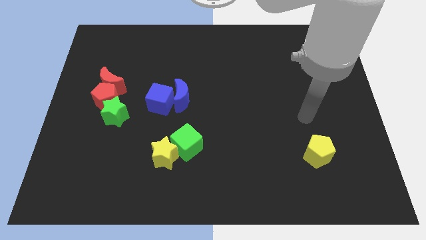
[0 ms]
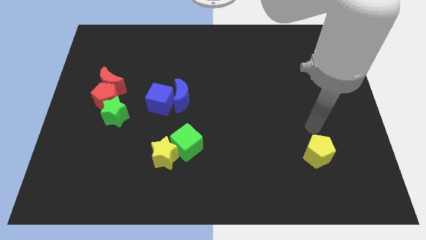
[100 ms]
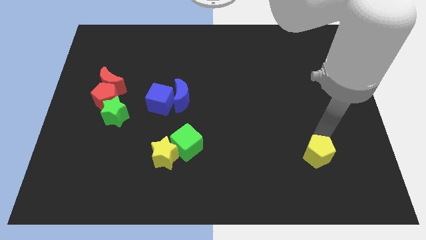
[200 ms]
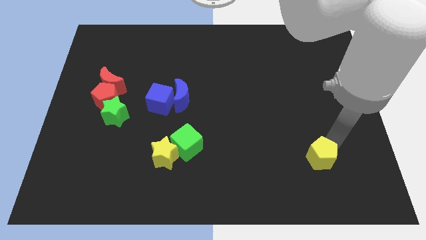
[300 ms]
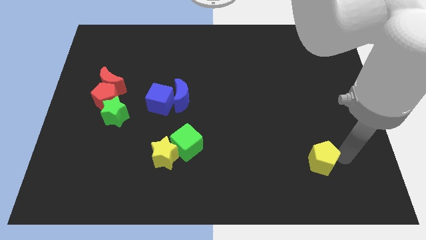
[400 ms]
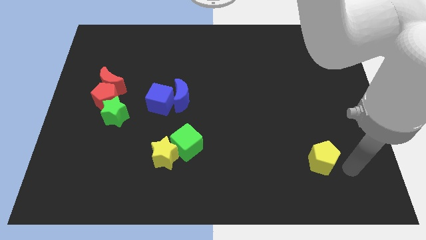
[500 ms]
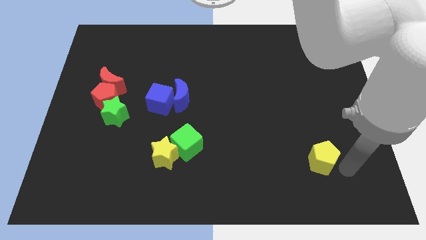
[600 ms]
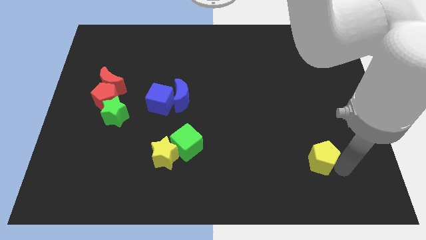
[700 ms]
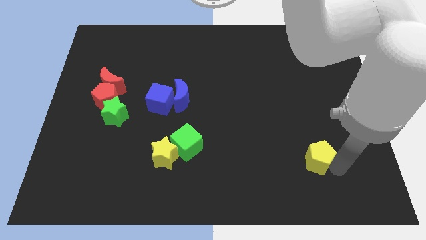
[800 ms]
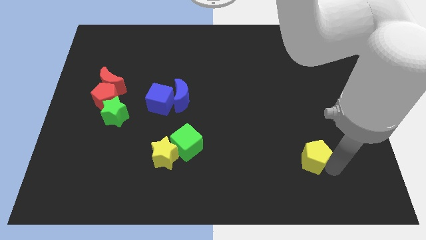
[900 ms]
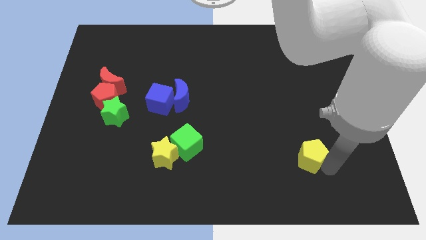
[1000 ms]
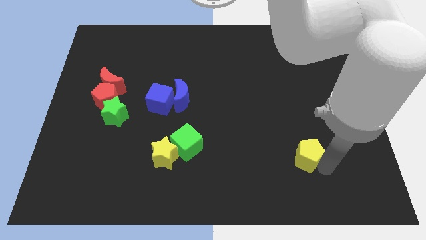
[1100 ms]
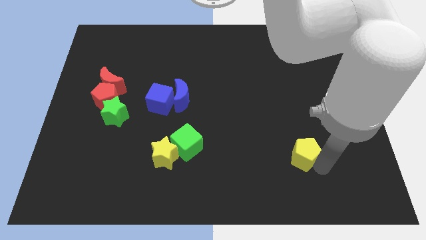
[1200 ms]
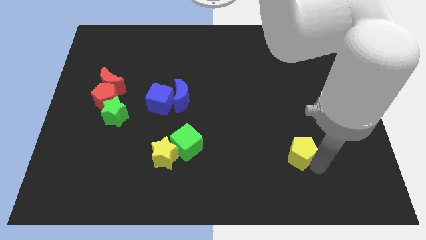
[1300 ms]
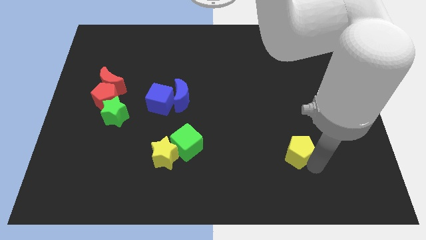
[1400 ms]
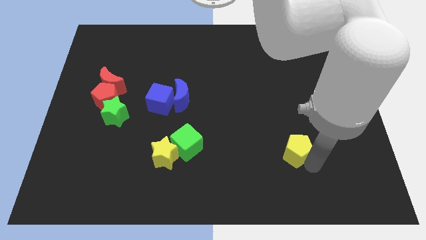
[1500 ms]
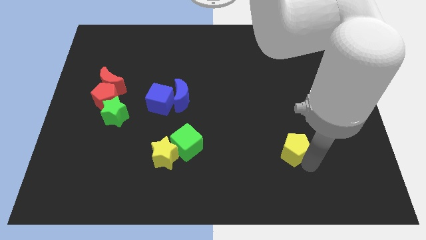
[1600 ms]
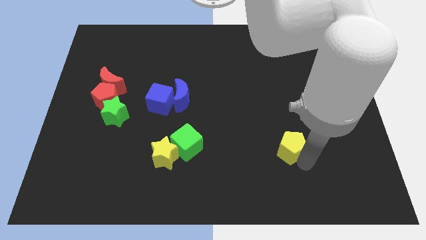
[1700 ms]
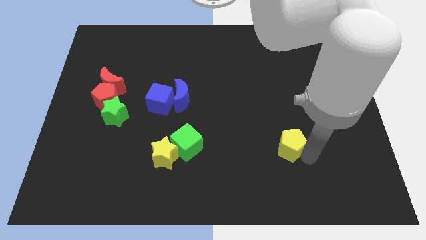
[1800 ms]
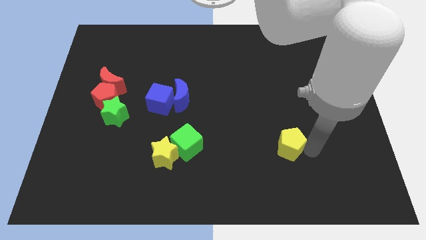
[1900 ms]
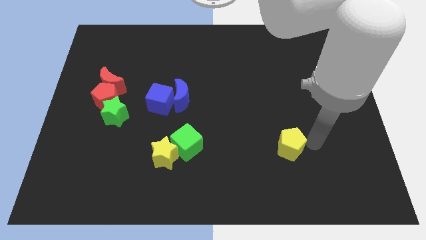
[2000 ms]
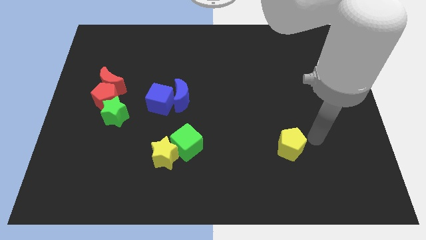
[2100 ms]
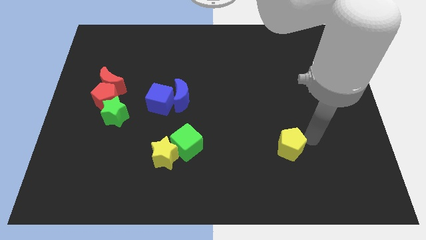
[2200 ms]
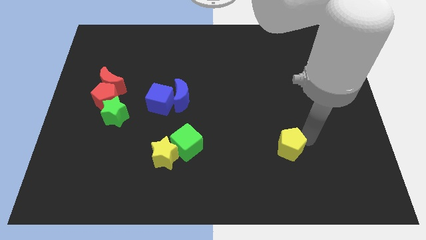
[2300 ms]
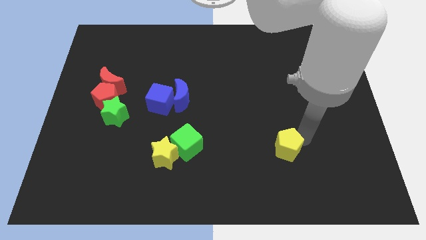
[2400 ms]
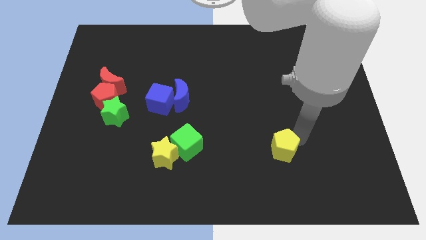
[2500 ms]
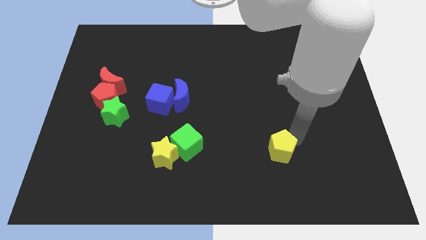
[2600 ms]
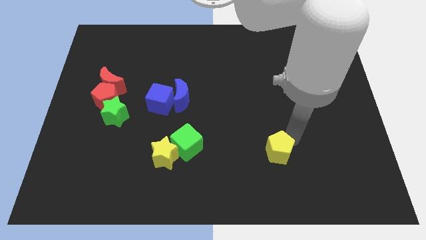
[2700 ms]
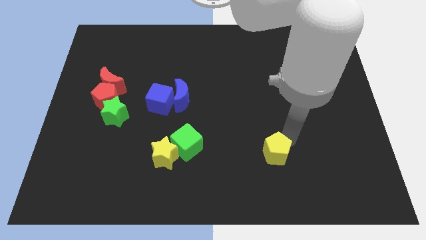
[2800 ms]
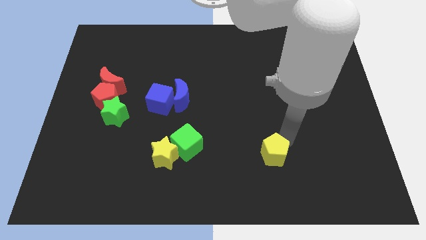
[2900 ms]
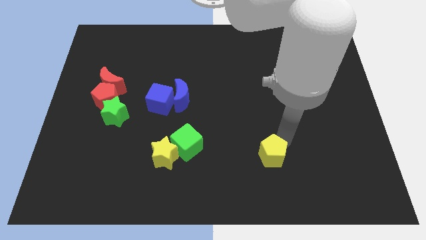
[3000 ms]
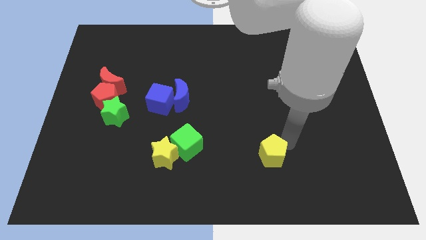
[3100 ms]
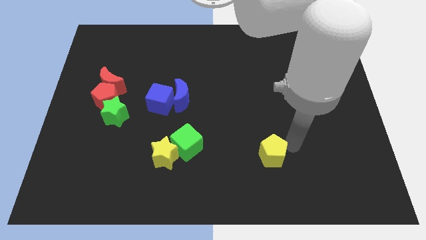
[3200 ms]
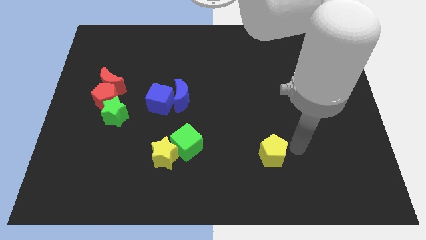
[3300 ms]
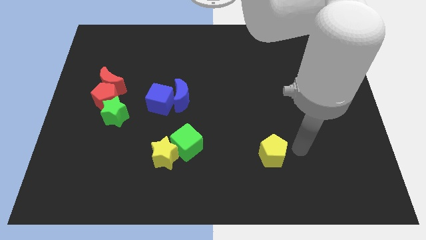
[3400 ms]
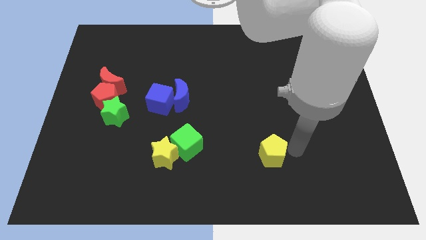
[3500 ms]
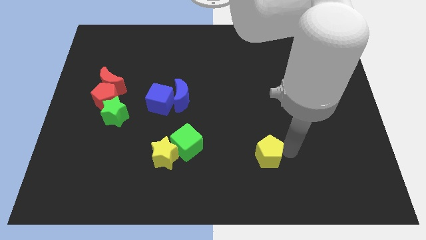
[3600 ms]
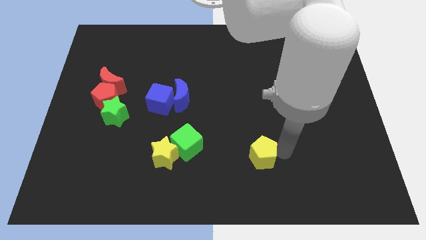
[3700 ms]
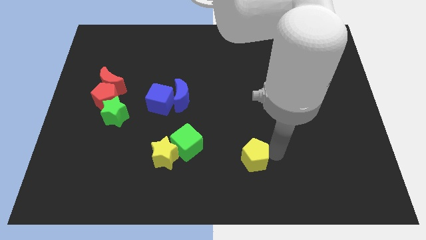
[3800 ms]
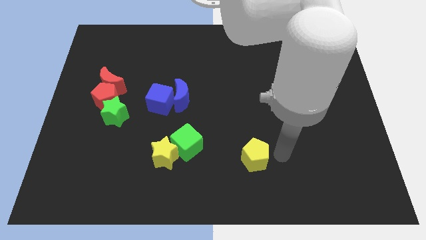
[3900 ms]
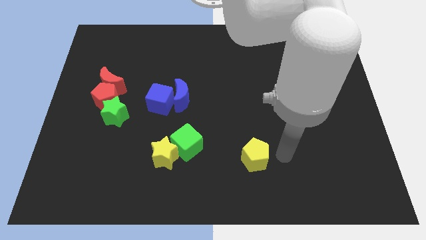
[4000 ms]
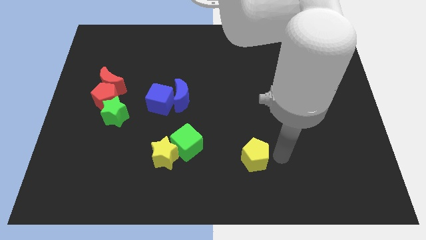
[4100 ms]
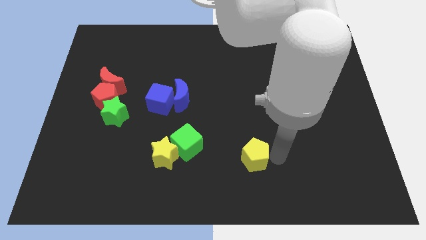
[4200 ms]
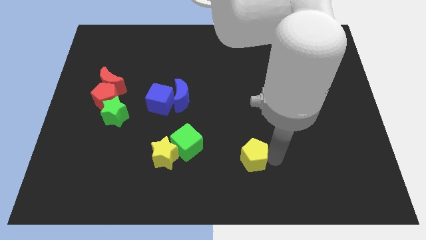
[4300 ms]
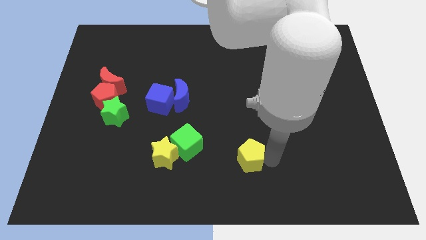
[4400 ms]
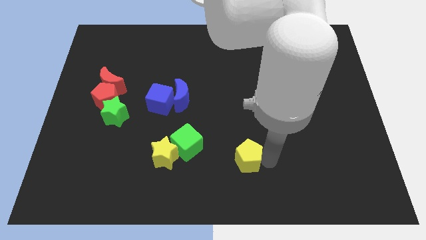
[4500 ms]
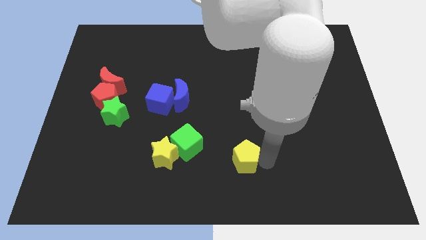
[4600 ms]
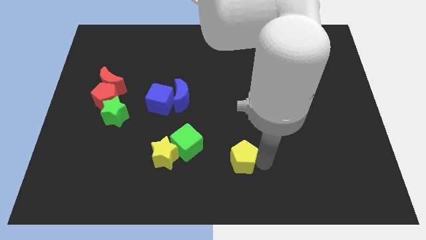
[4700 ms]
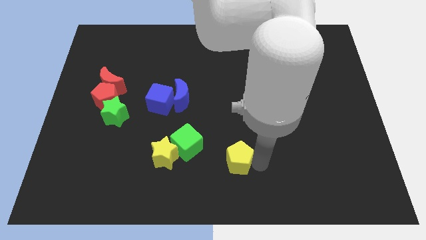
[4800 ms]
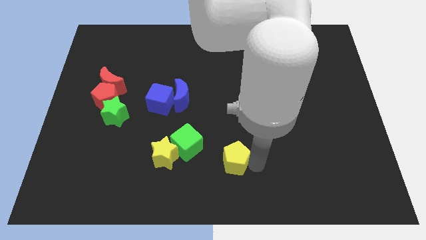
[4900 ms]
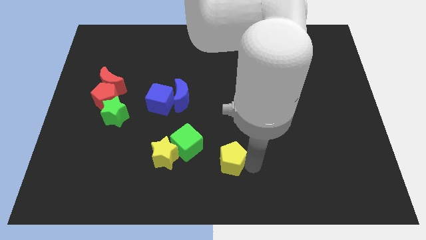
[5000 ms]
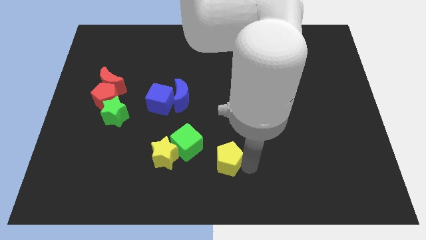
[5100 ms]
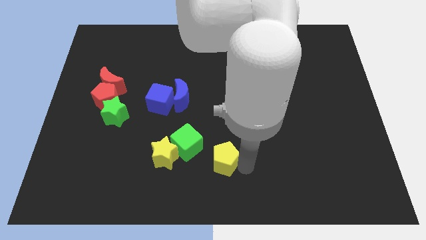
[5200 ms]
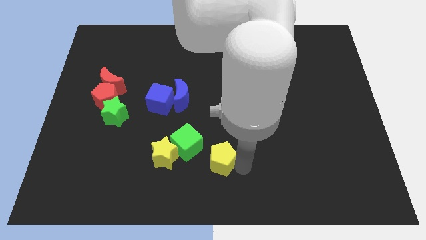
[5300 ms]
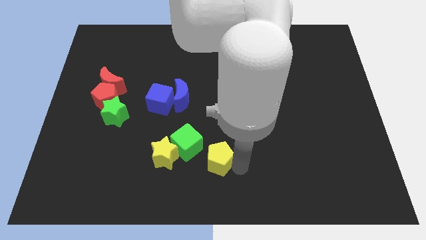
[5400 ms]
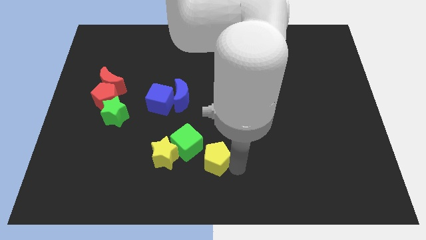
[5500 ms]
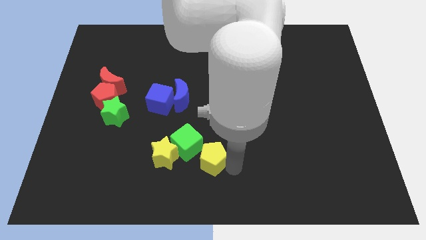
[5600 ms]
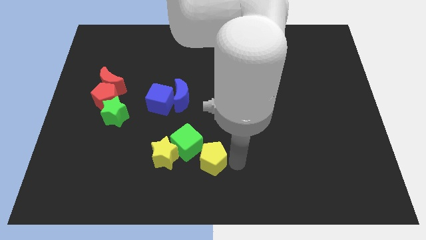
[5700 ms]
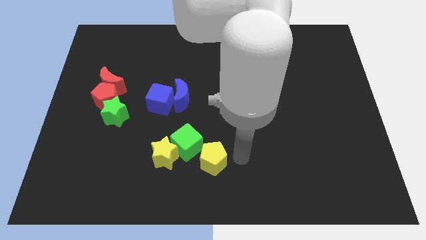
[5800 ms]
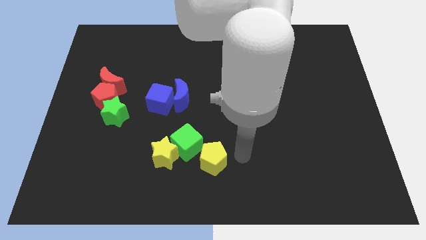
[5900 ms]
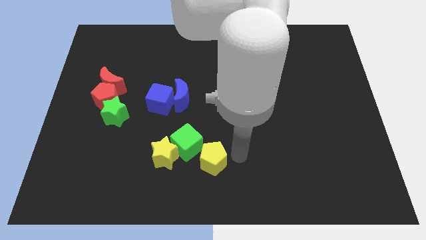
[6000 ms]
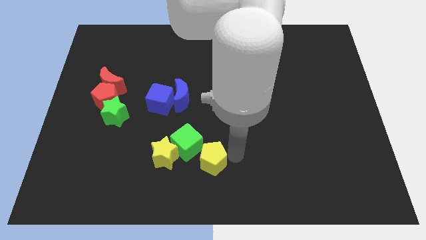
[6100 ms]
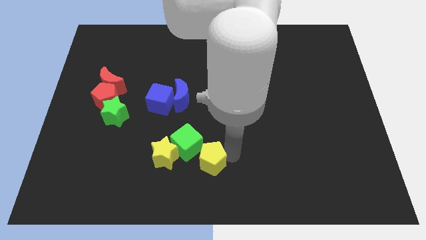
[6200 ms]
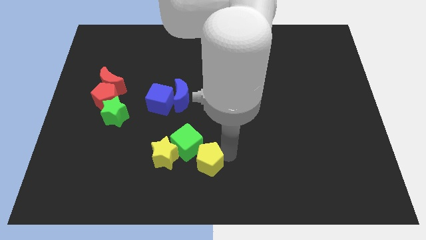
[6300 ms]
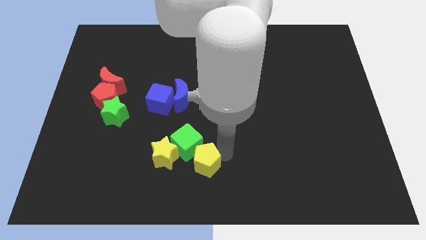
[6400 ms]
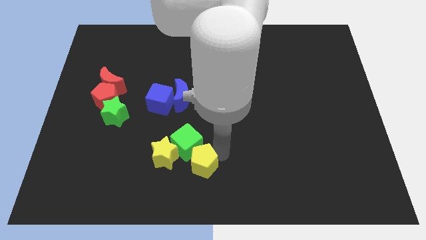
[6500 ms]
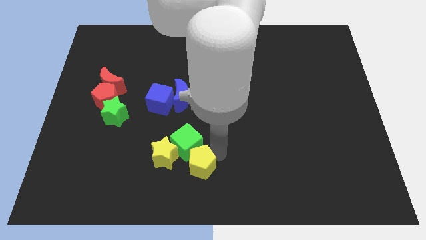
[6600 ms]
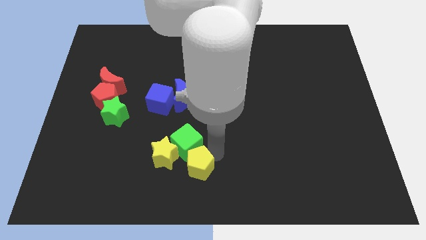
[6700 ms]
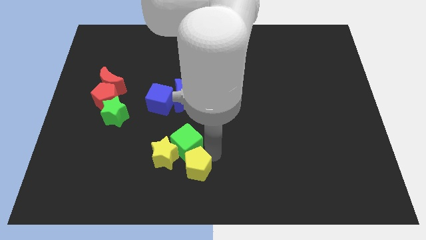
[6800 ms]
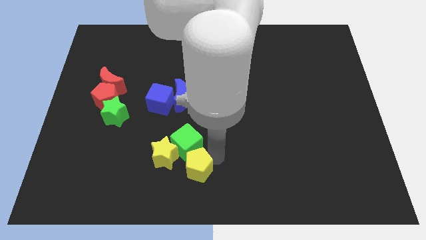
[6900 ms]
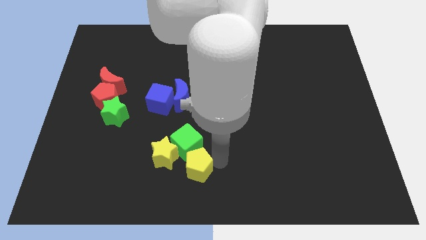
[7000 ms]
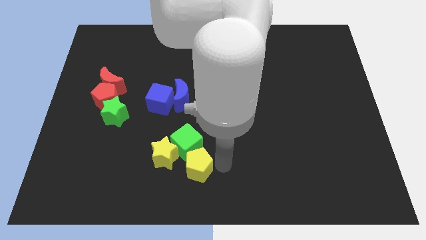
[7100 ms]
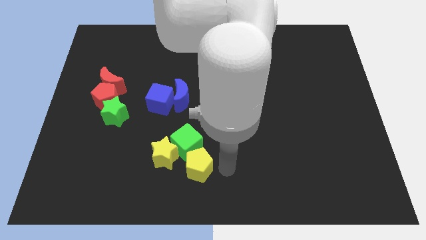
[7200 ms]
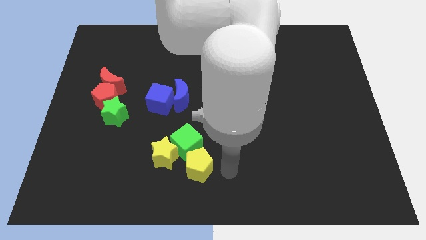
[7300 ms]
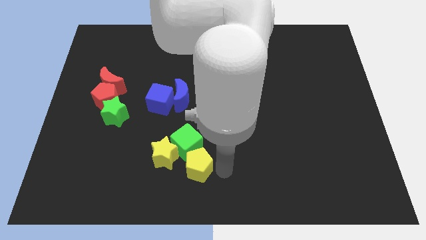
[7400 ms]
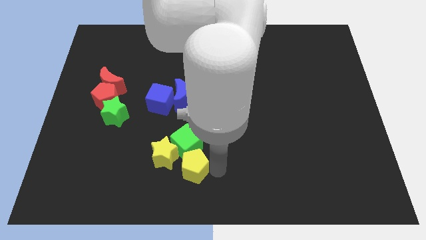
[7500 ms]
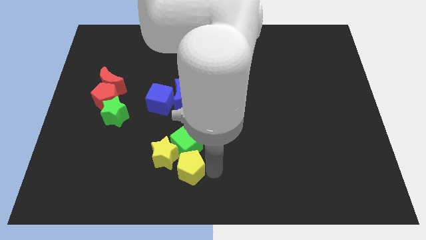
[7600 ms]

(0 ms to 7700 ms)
slide the yellow pentagon towards the yellow star
